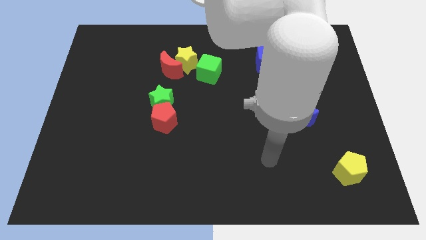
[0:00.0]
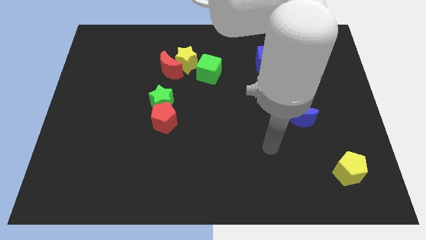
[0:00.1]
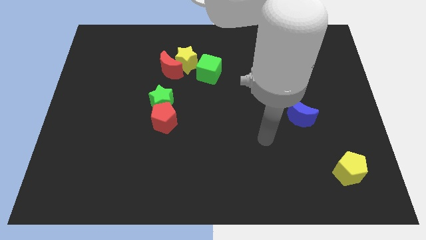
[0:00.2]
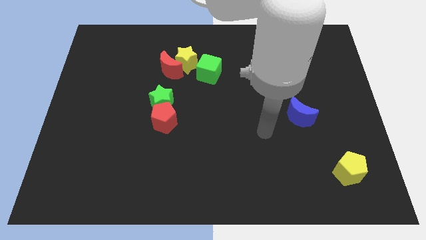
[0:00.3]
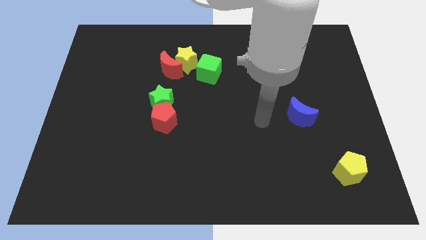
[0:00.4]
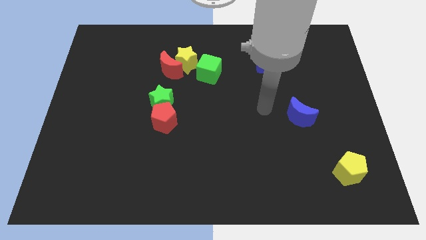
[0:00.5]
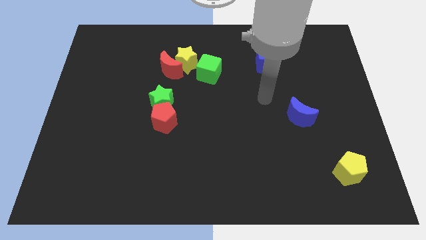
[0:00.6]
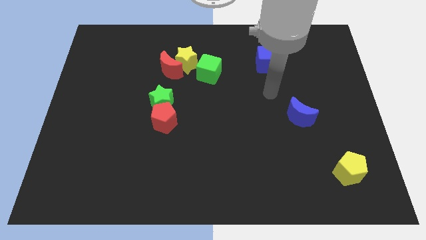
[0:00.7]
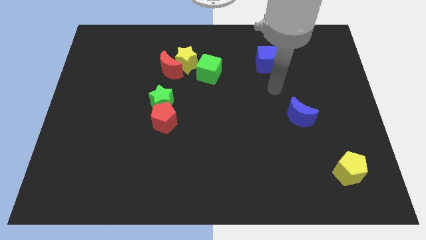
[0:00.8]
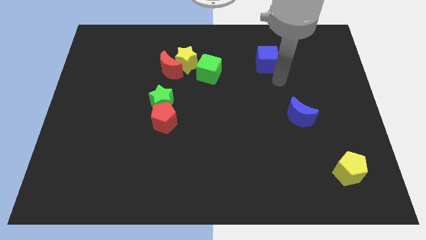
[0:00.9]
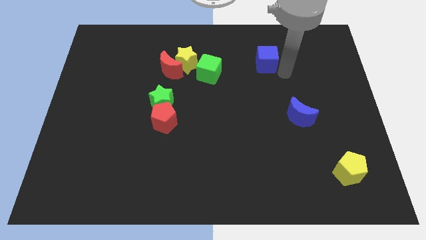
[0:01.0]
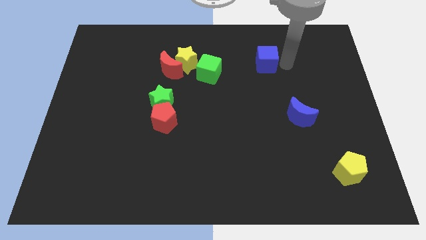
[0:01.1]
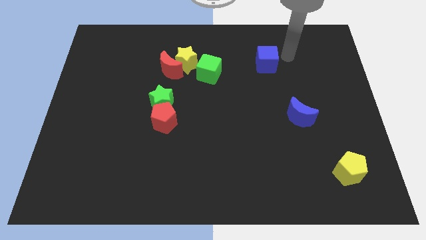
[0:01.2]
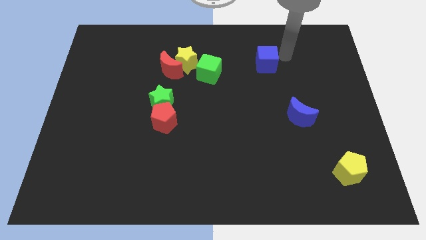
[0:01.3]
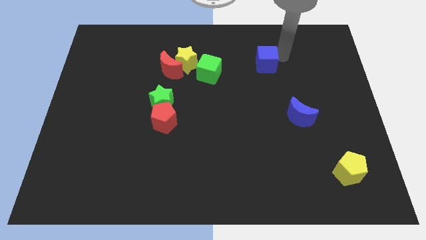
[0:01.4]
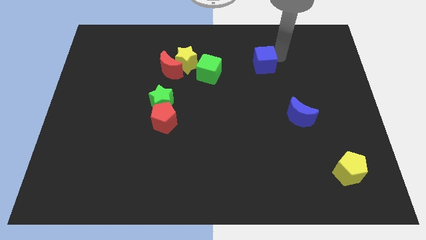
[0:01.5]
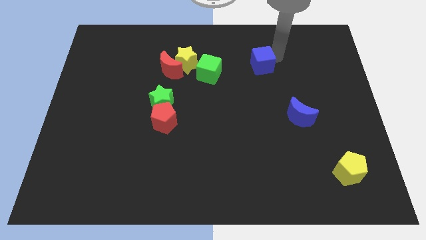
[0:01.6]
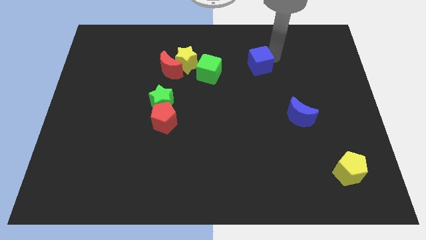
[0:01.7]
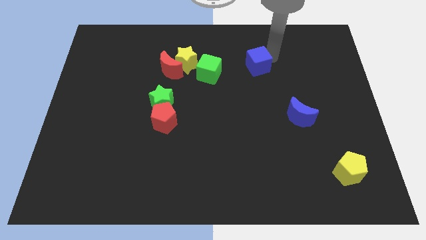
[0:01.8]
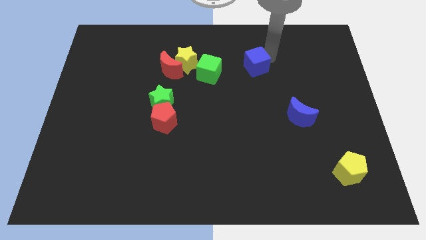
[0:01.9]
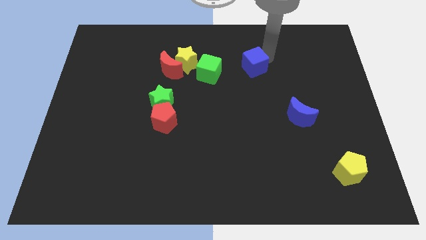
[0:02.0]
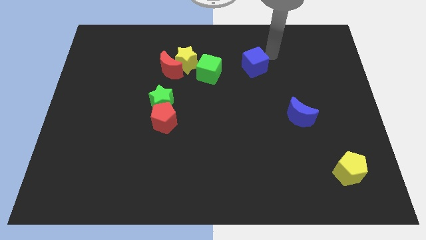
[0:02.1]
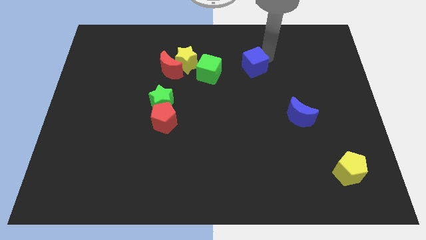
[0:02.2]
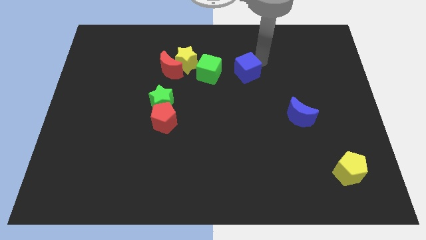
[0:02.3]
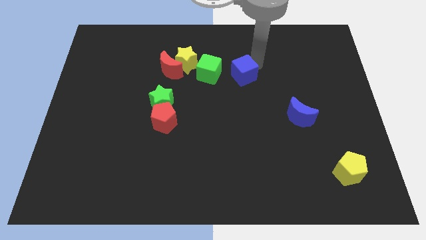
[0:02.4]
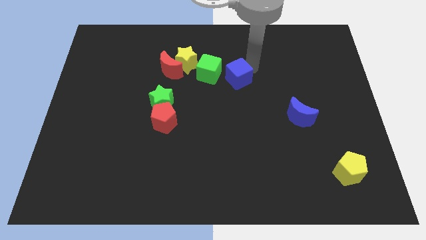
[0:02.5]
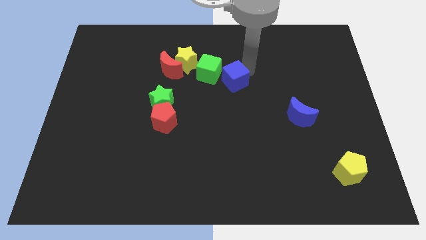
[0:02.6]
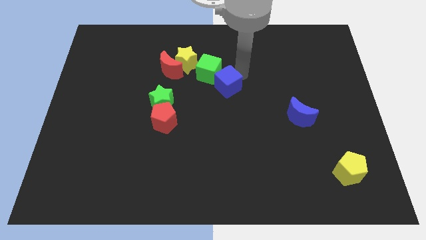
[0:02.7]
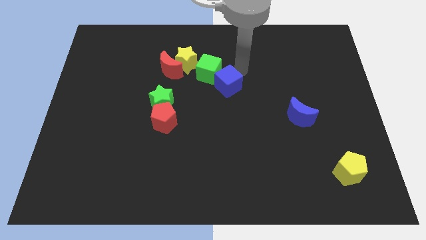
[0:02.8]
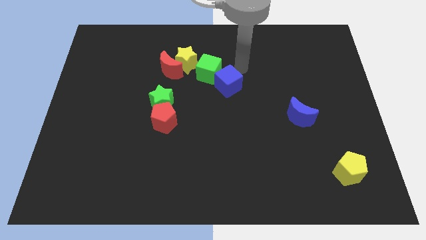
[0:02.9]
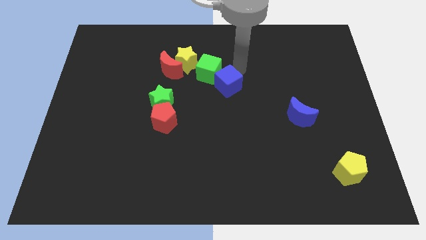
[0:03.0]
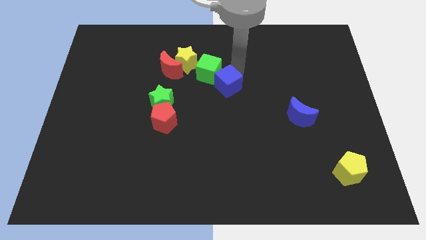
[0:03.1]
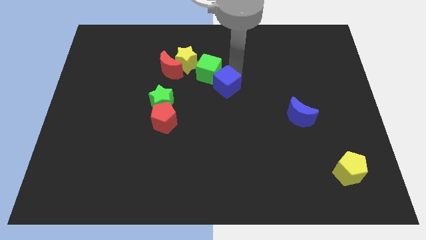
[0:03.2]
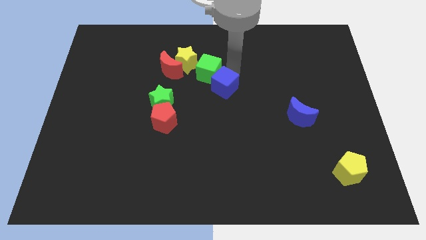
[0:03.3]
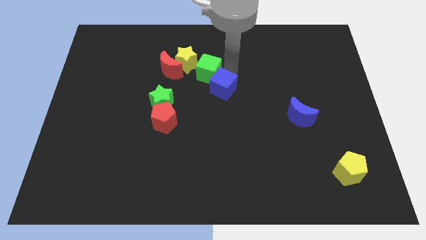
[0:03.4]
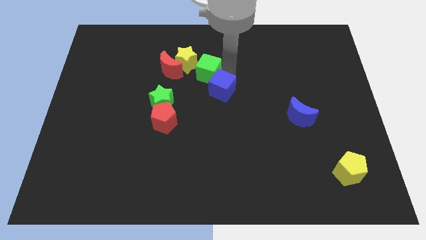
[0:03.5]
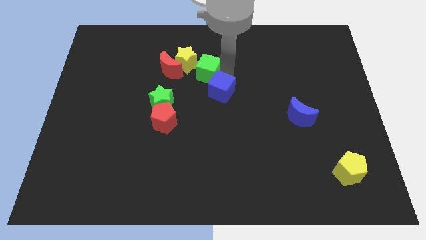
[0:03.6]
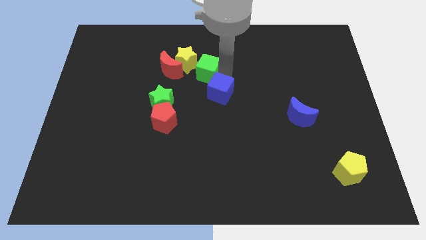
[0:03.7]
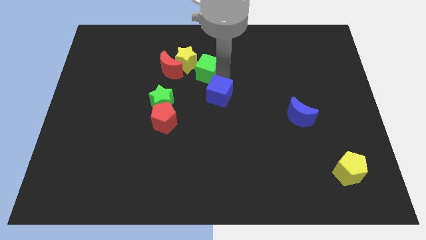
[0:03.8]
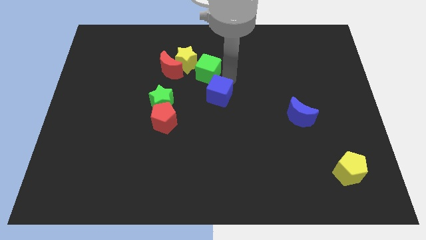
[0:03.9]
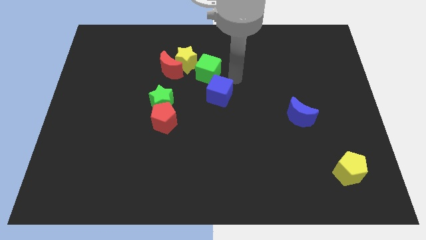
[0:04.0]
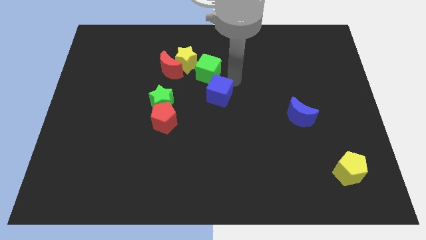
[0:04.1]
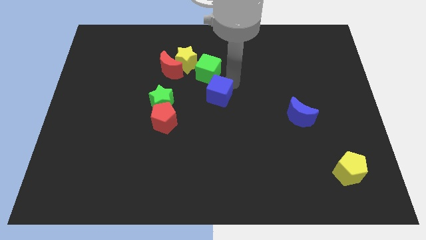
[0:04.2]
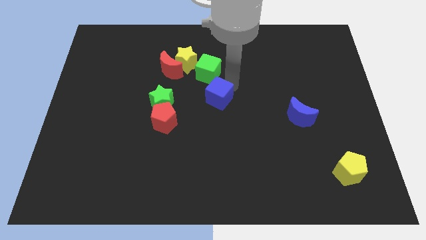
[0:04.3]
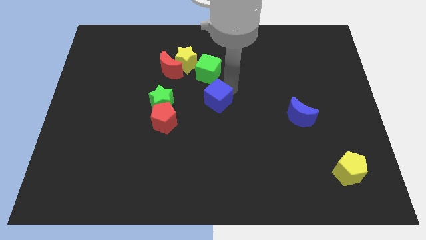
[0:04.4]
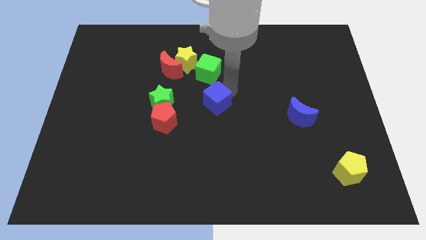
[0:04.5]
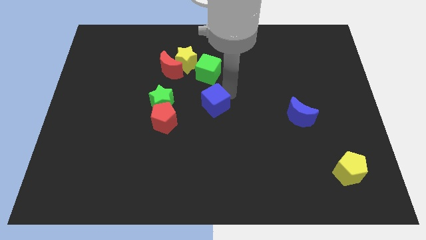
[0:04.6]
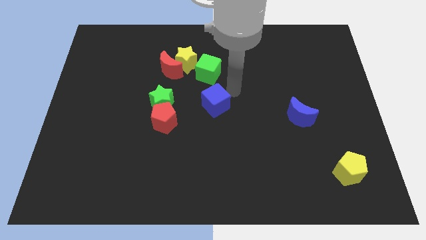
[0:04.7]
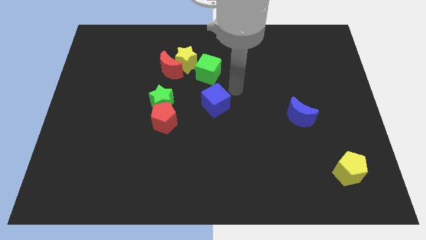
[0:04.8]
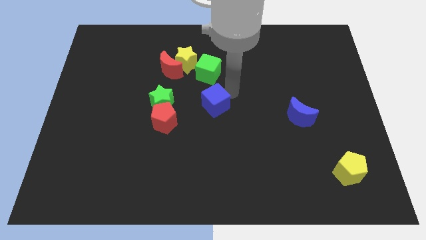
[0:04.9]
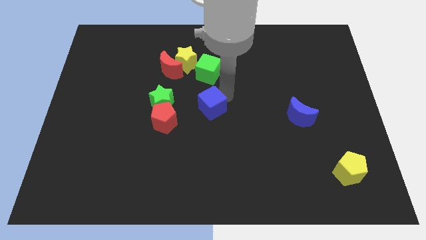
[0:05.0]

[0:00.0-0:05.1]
slide the blue cube downwards and then left

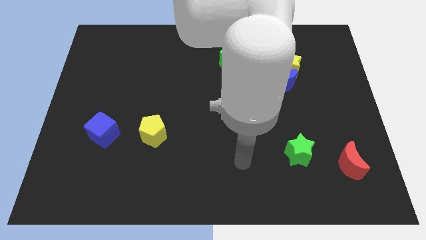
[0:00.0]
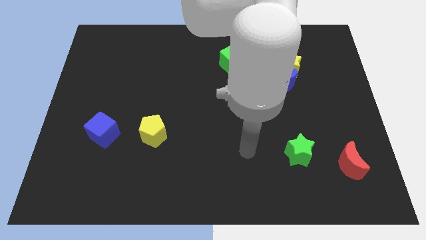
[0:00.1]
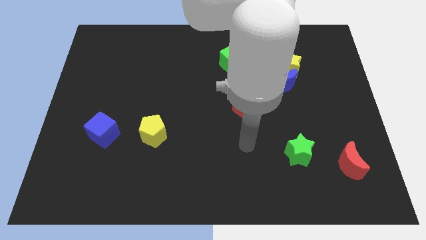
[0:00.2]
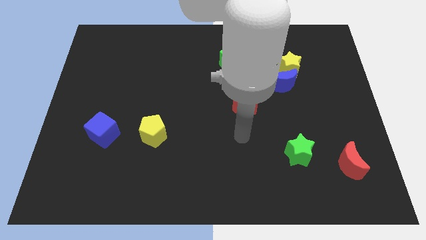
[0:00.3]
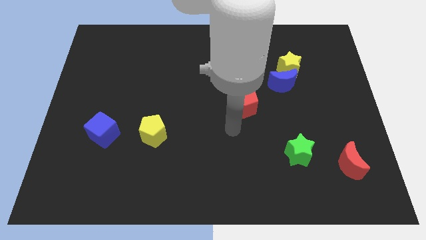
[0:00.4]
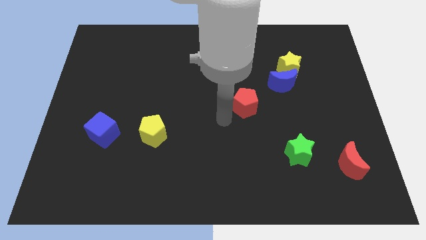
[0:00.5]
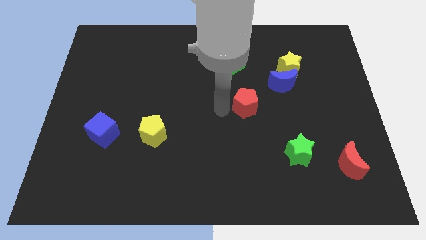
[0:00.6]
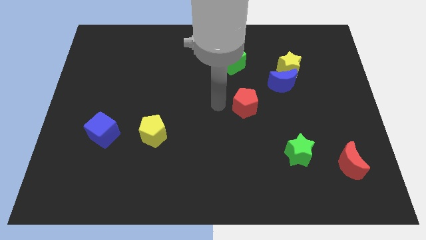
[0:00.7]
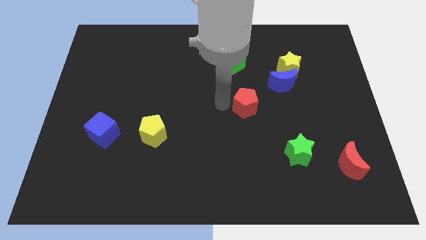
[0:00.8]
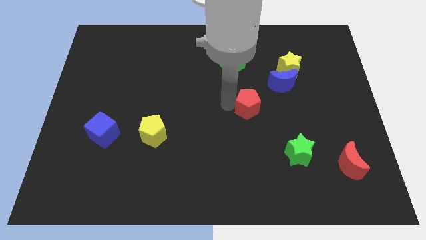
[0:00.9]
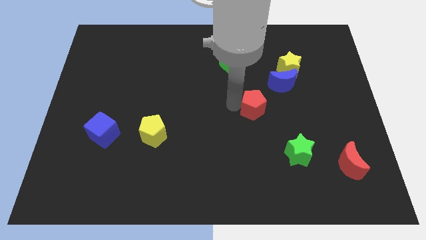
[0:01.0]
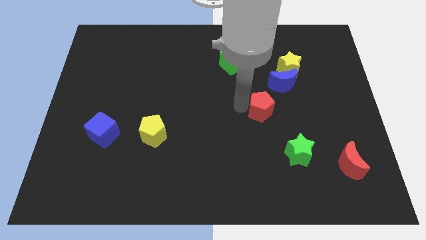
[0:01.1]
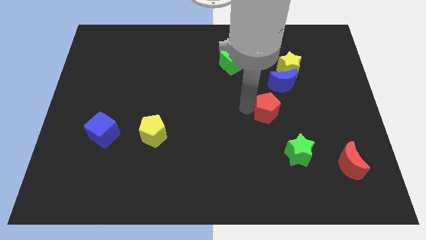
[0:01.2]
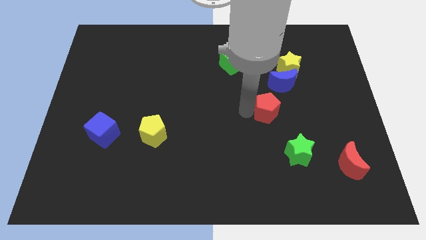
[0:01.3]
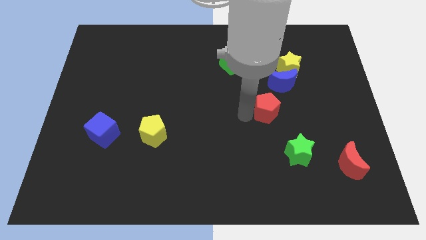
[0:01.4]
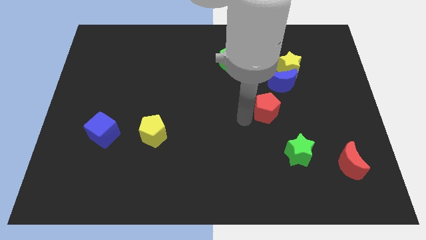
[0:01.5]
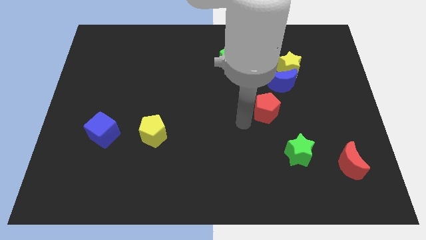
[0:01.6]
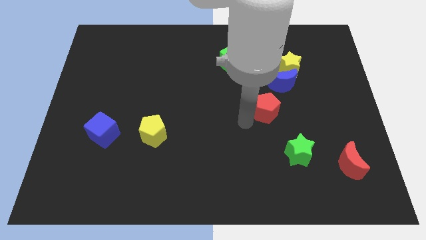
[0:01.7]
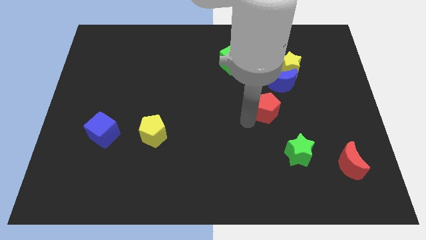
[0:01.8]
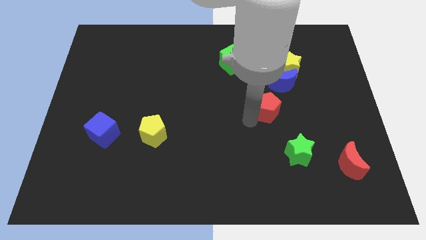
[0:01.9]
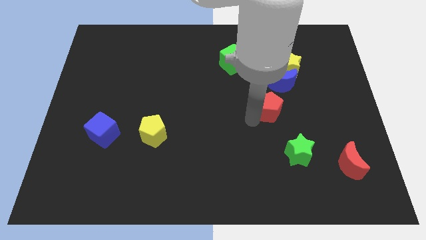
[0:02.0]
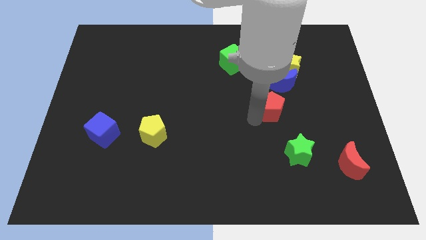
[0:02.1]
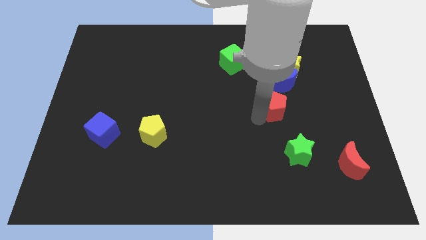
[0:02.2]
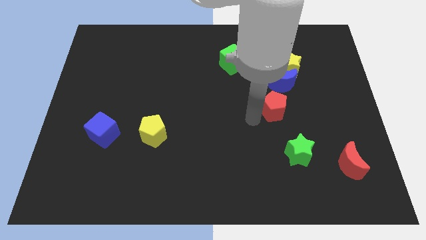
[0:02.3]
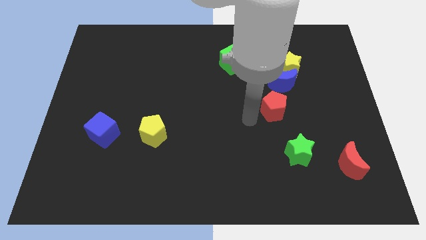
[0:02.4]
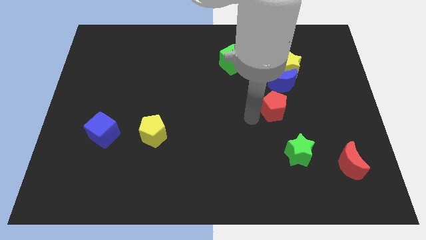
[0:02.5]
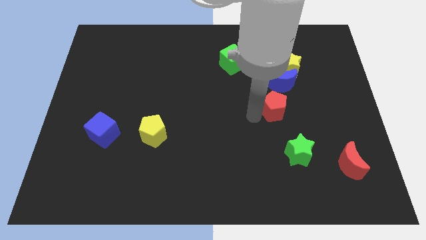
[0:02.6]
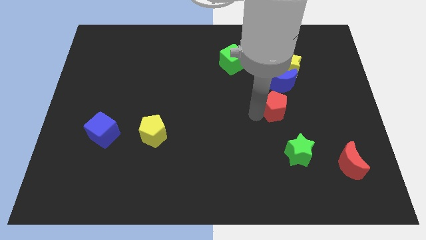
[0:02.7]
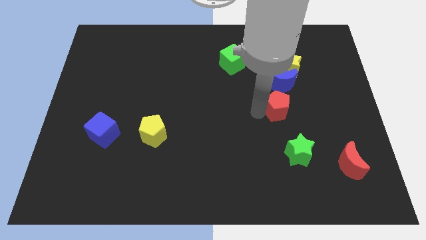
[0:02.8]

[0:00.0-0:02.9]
move the red pentagon a little bit right
